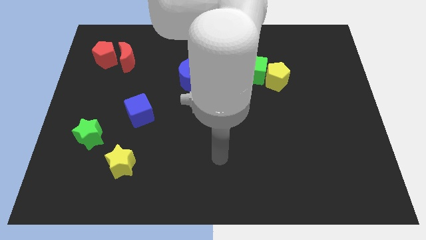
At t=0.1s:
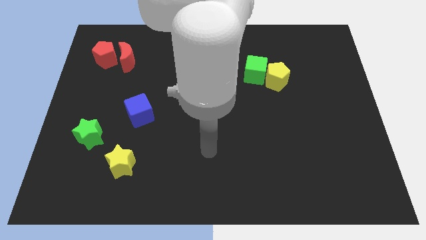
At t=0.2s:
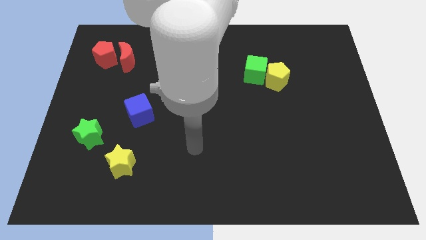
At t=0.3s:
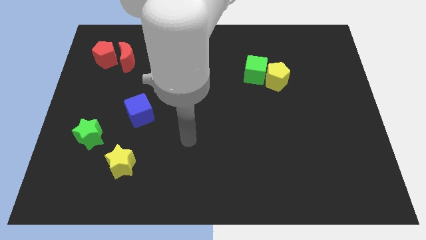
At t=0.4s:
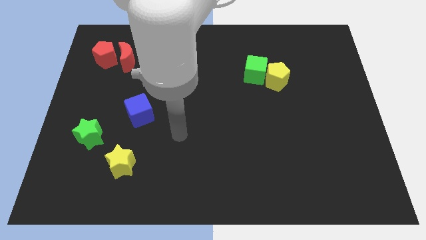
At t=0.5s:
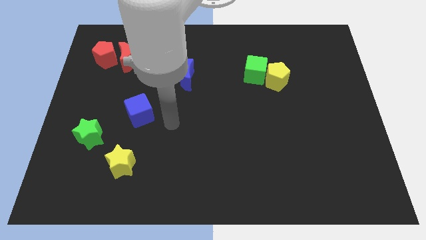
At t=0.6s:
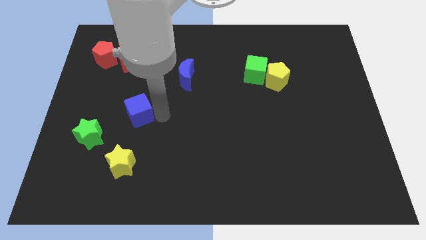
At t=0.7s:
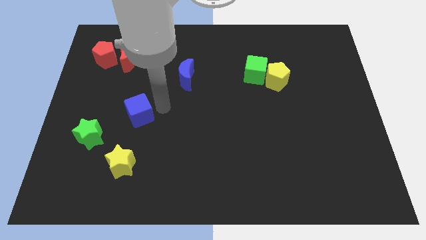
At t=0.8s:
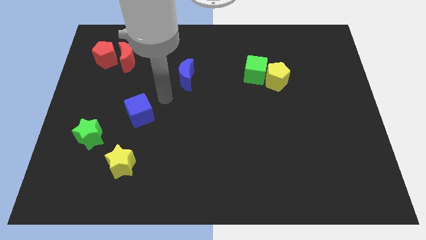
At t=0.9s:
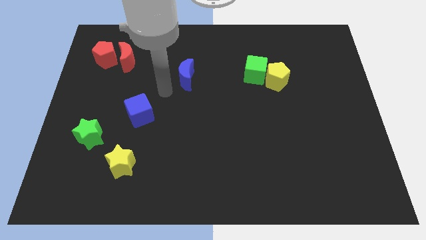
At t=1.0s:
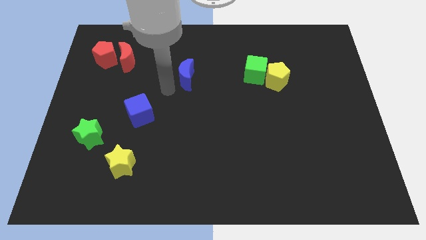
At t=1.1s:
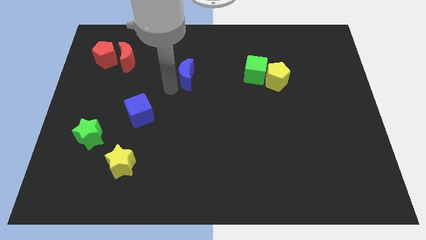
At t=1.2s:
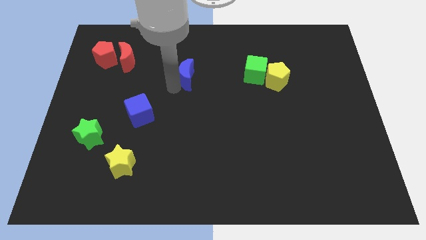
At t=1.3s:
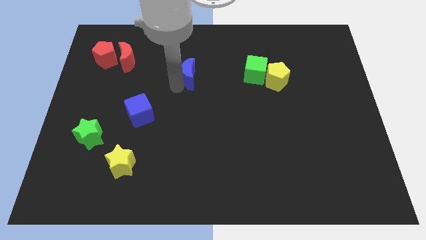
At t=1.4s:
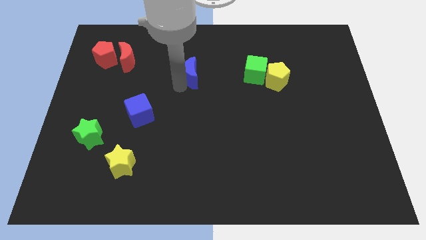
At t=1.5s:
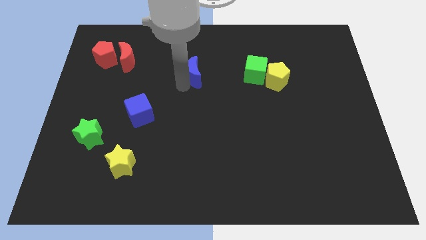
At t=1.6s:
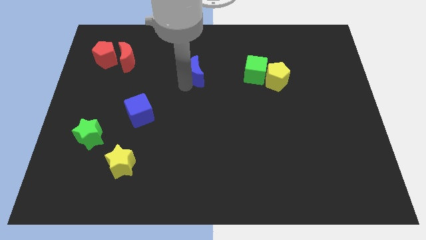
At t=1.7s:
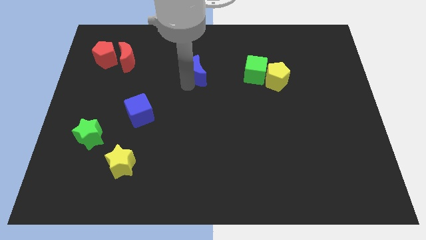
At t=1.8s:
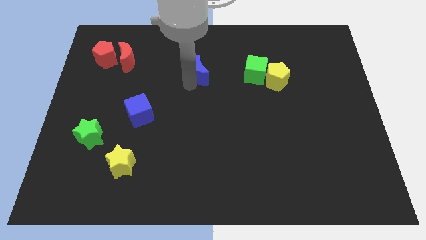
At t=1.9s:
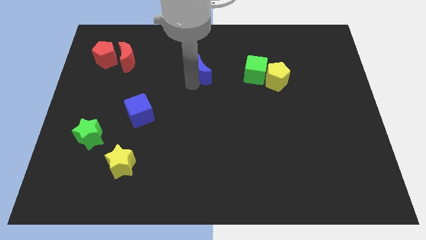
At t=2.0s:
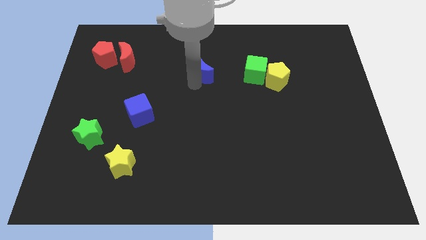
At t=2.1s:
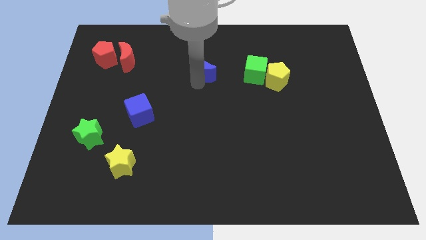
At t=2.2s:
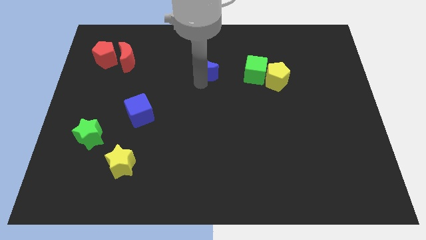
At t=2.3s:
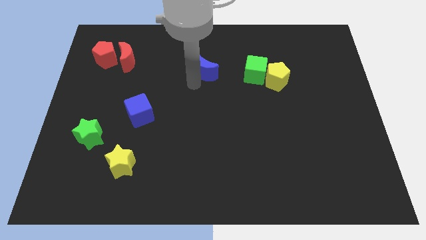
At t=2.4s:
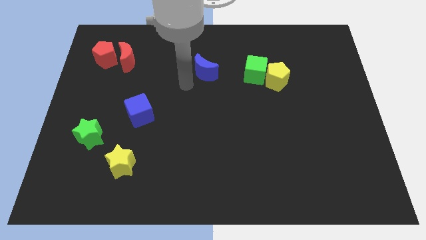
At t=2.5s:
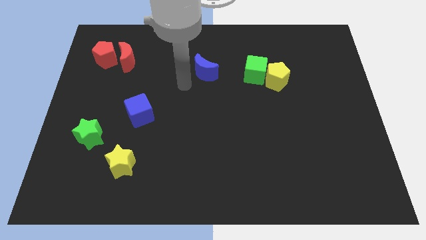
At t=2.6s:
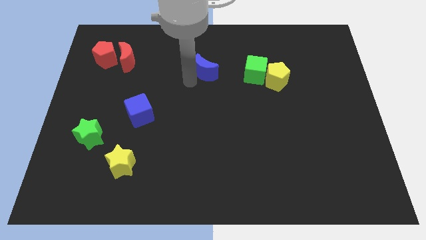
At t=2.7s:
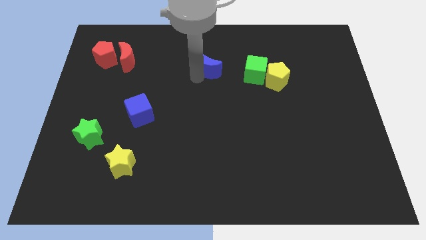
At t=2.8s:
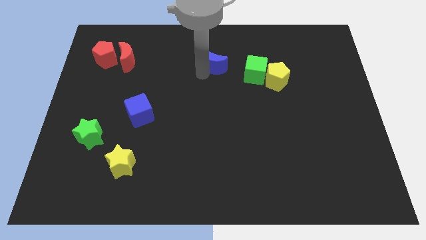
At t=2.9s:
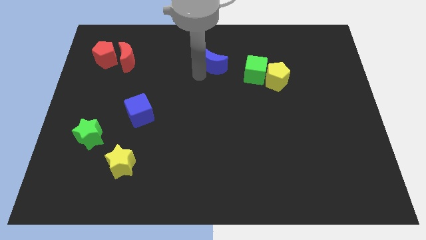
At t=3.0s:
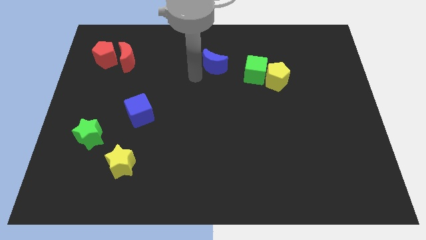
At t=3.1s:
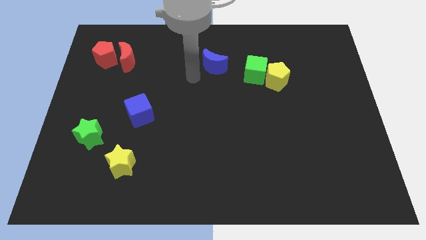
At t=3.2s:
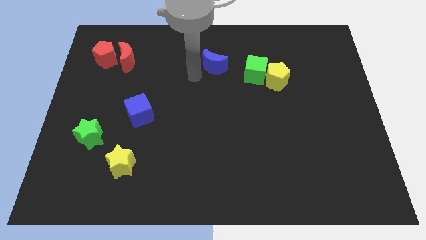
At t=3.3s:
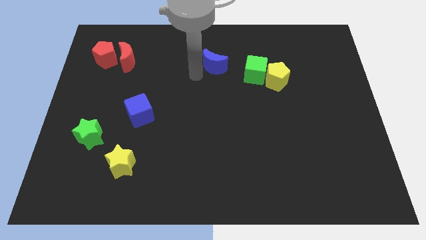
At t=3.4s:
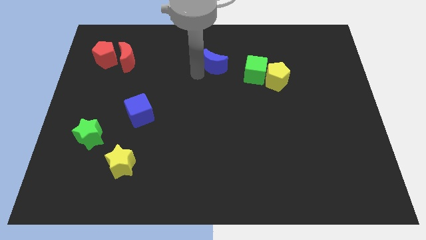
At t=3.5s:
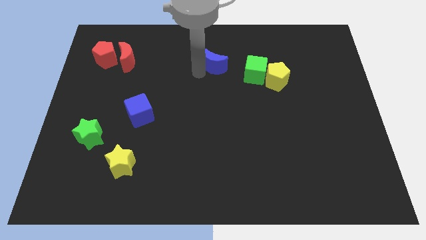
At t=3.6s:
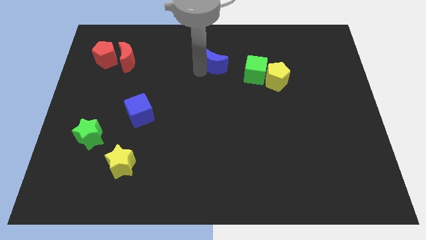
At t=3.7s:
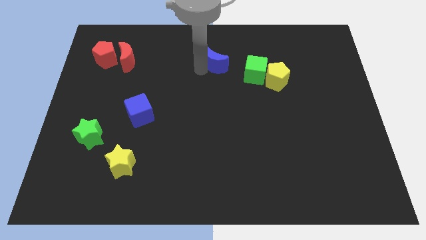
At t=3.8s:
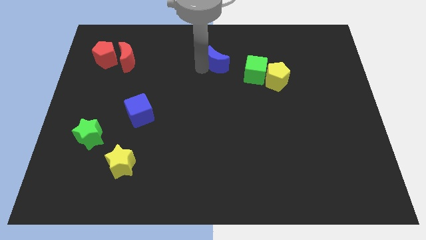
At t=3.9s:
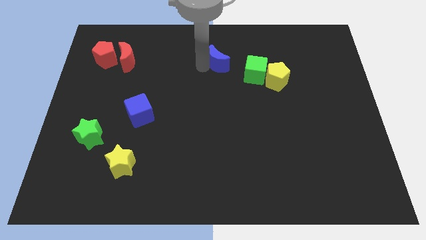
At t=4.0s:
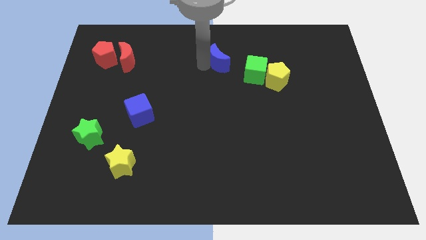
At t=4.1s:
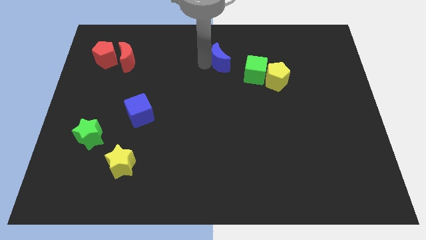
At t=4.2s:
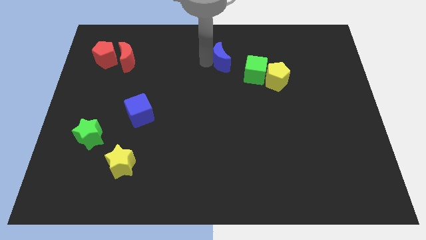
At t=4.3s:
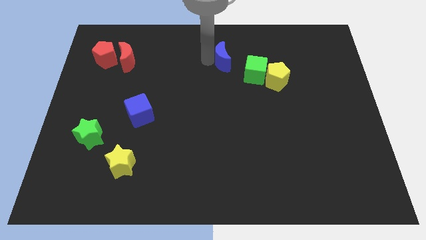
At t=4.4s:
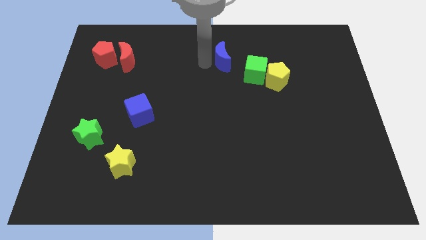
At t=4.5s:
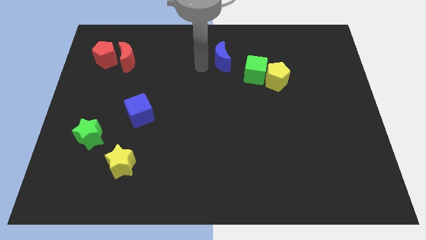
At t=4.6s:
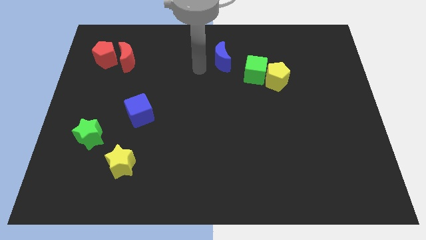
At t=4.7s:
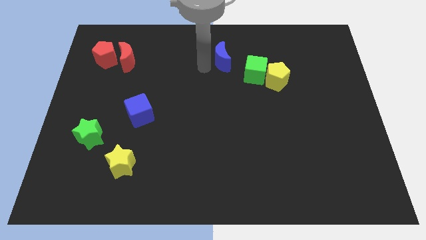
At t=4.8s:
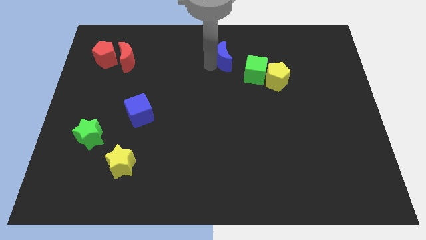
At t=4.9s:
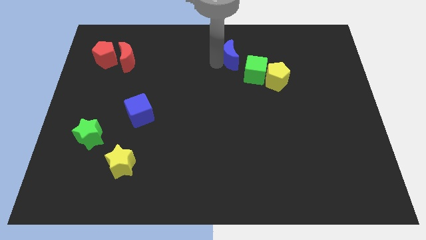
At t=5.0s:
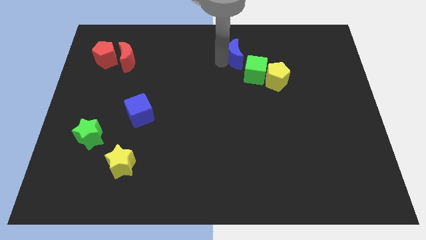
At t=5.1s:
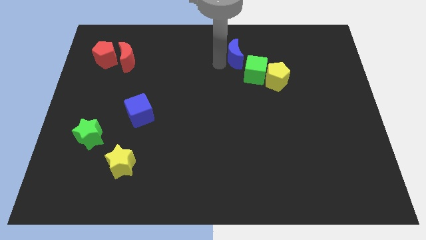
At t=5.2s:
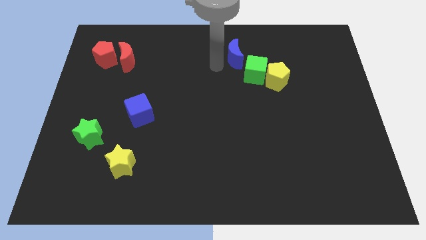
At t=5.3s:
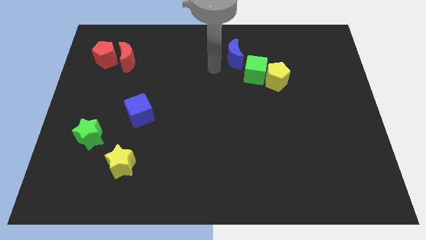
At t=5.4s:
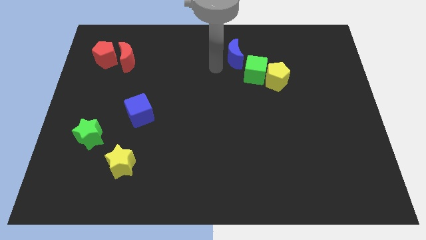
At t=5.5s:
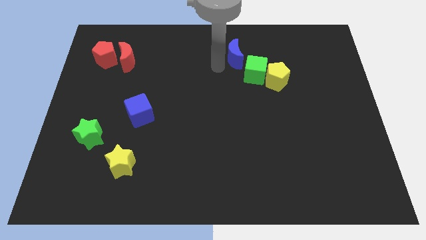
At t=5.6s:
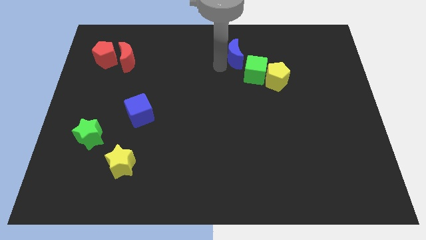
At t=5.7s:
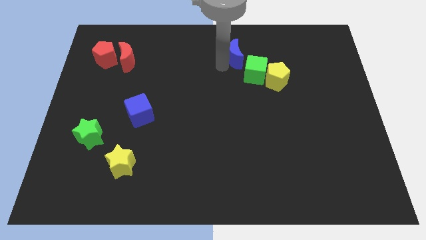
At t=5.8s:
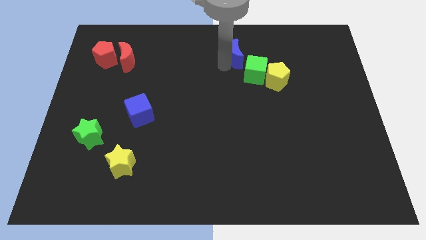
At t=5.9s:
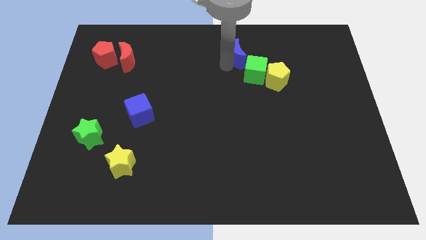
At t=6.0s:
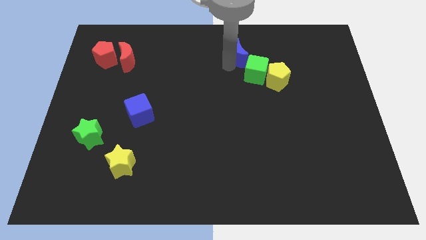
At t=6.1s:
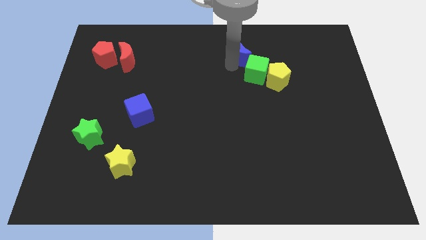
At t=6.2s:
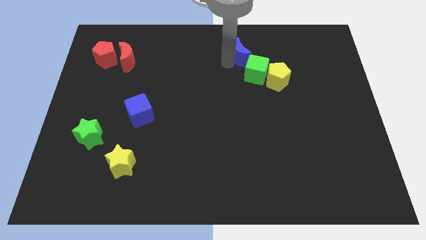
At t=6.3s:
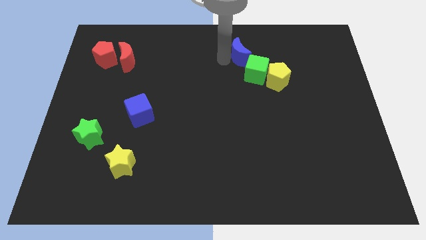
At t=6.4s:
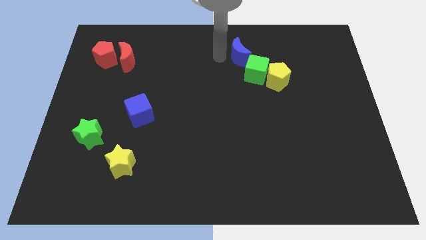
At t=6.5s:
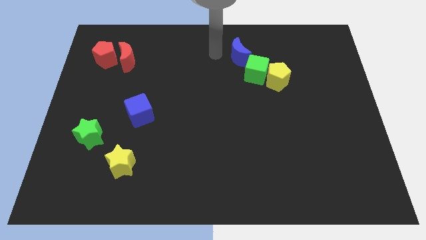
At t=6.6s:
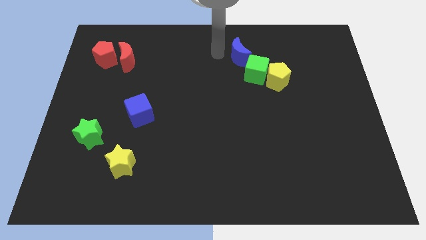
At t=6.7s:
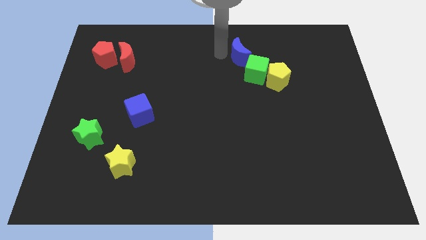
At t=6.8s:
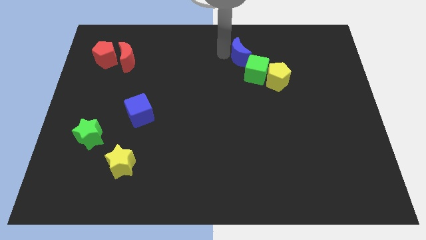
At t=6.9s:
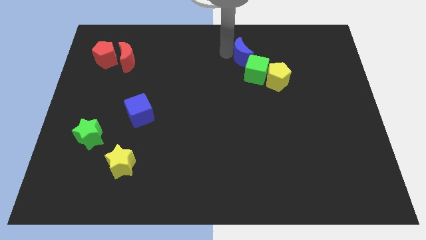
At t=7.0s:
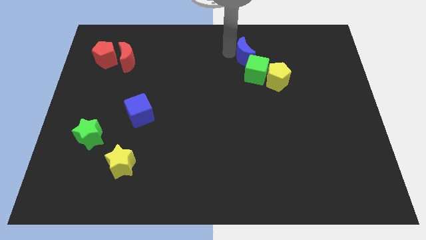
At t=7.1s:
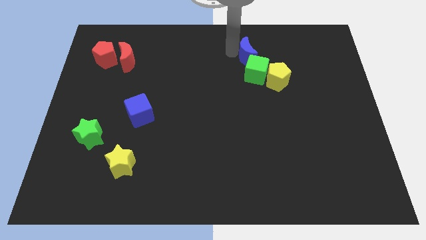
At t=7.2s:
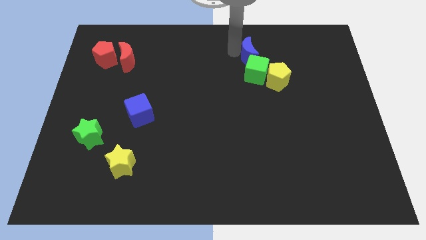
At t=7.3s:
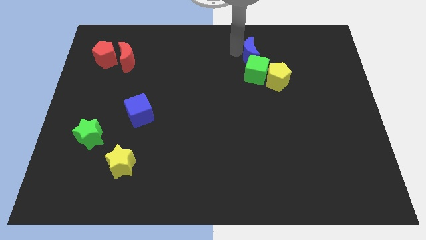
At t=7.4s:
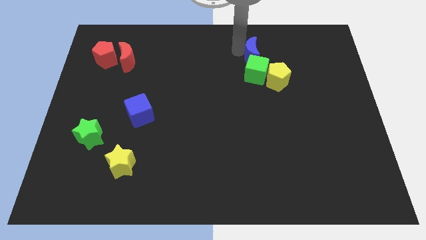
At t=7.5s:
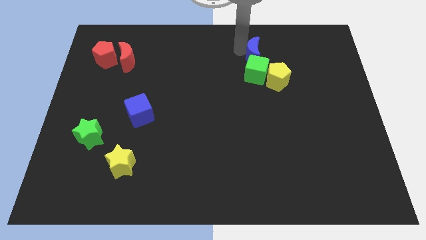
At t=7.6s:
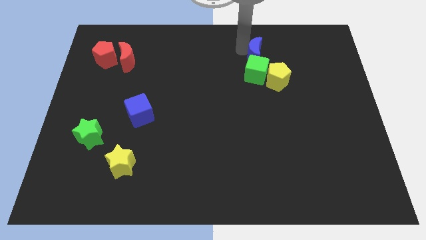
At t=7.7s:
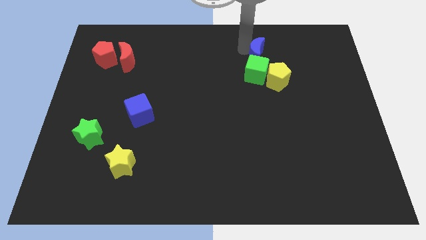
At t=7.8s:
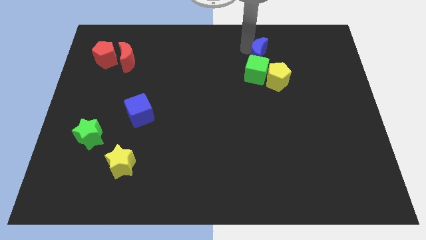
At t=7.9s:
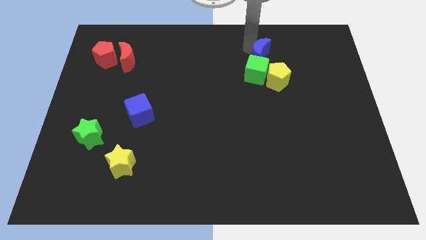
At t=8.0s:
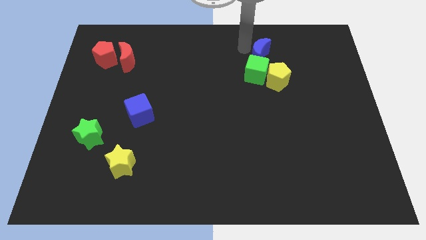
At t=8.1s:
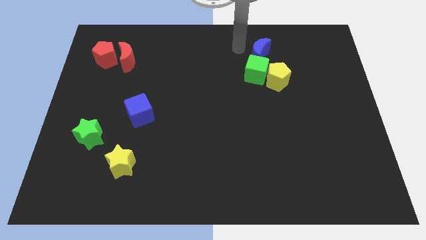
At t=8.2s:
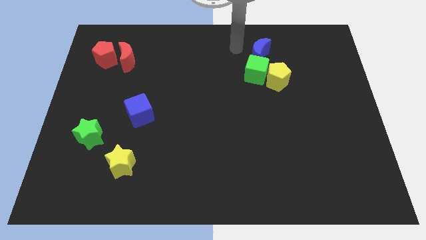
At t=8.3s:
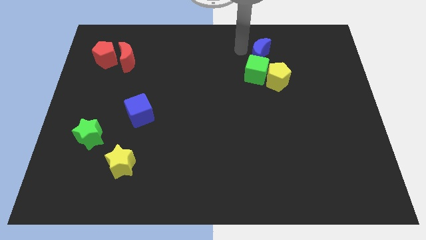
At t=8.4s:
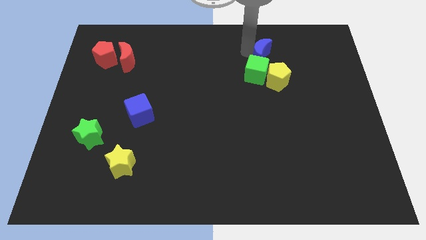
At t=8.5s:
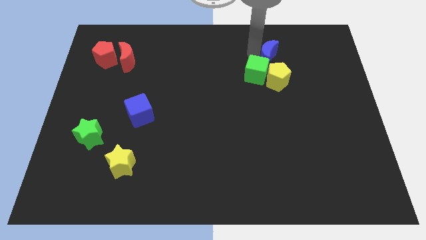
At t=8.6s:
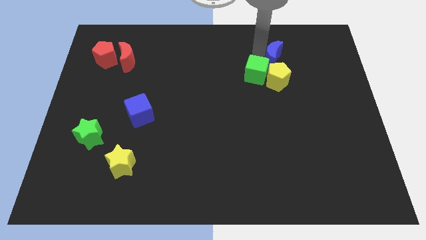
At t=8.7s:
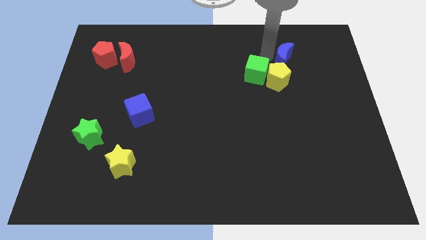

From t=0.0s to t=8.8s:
slide the blue moon to the right side of the green cube
